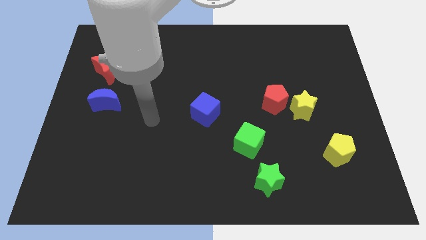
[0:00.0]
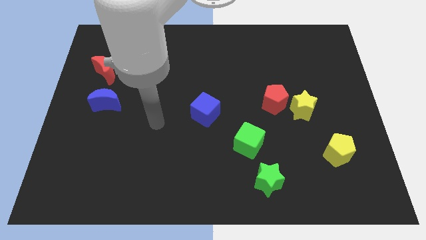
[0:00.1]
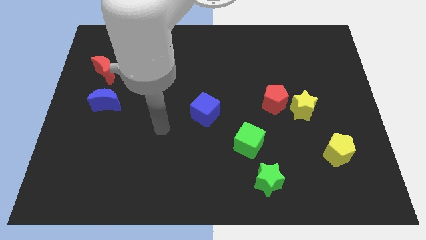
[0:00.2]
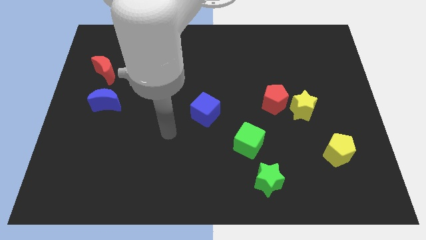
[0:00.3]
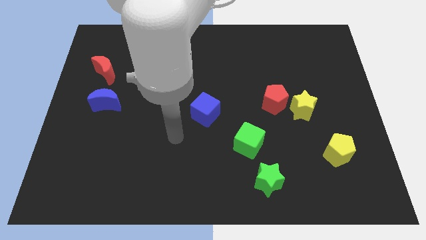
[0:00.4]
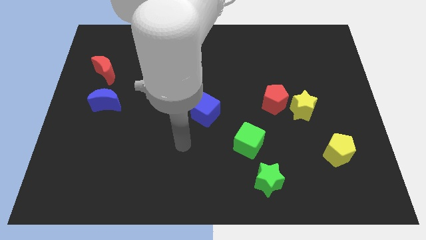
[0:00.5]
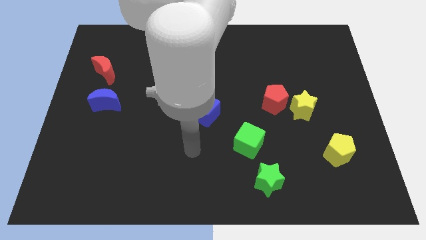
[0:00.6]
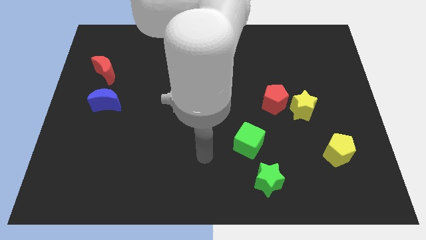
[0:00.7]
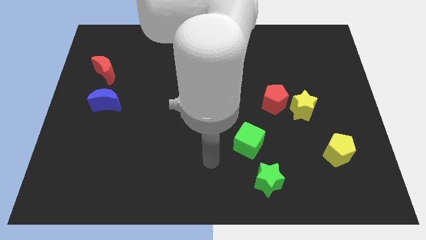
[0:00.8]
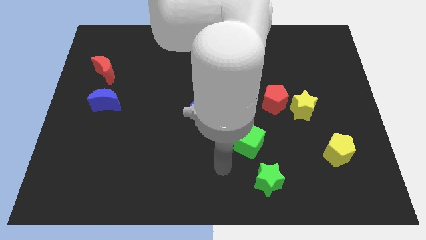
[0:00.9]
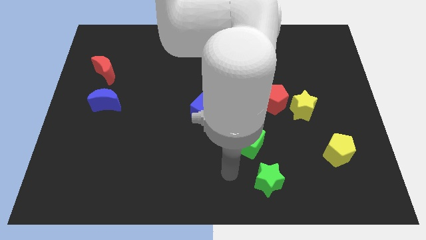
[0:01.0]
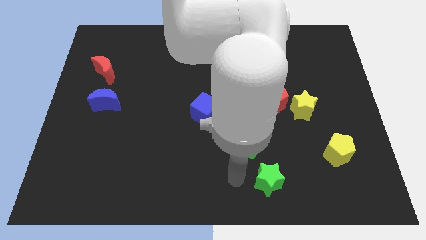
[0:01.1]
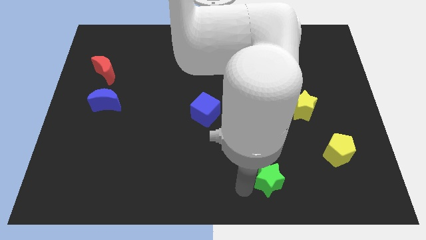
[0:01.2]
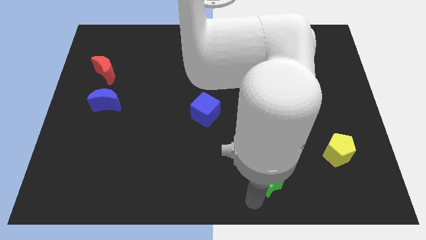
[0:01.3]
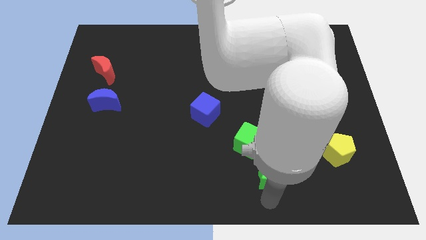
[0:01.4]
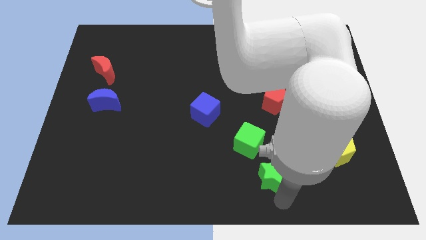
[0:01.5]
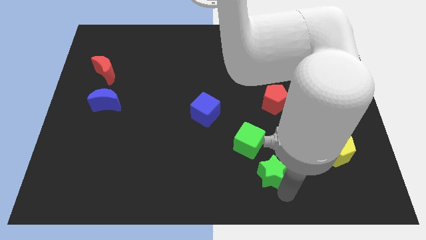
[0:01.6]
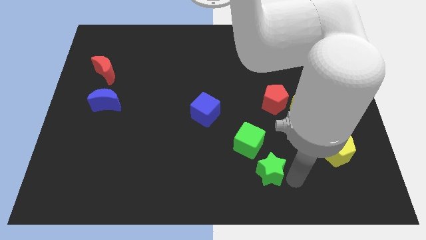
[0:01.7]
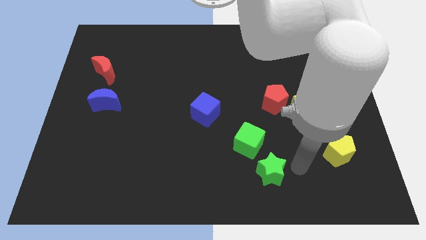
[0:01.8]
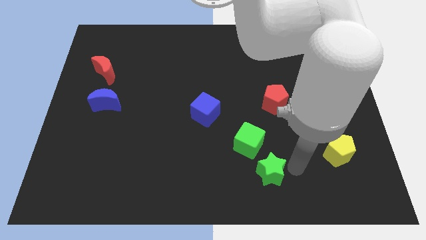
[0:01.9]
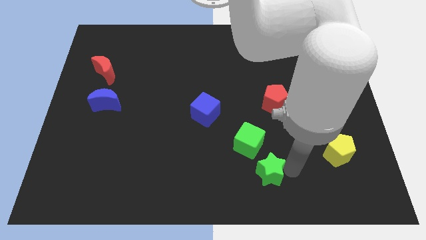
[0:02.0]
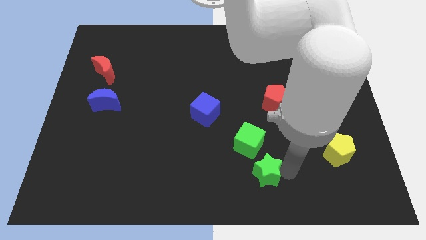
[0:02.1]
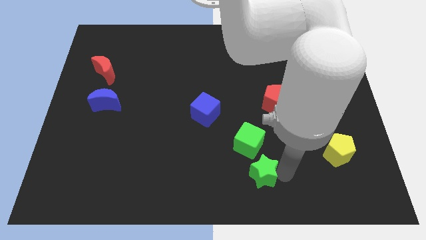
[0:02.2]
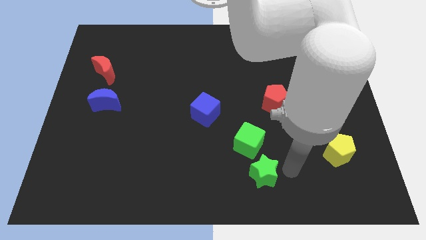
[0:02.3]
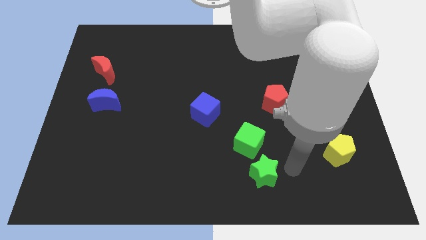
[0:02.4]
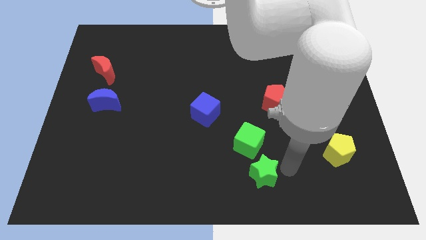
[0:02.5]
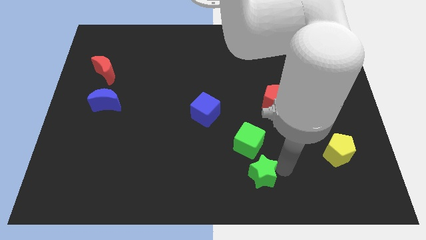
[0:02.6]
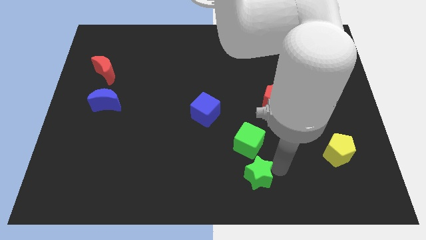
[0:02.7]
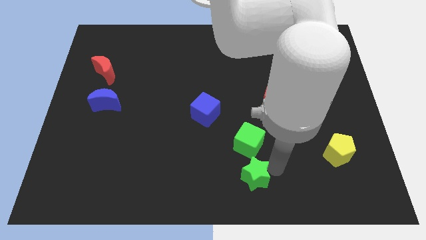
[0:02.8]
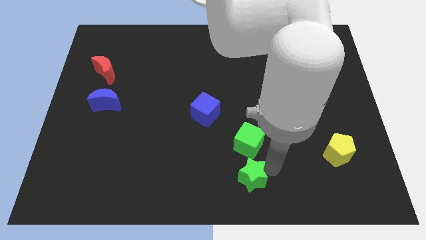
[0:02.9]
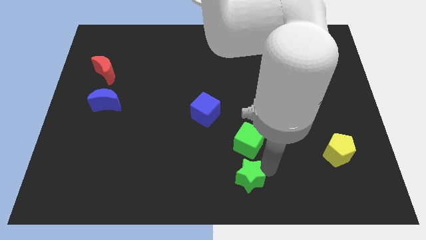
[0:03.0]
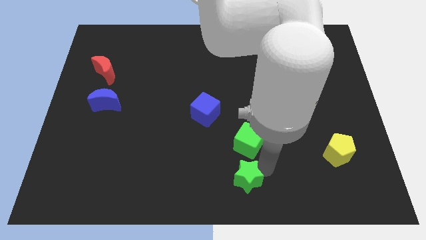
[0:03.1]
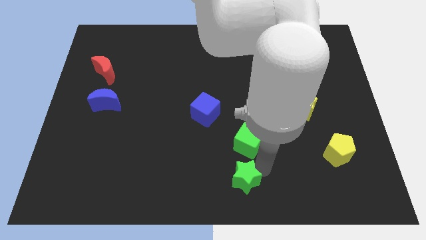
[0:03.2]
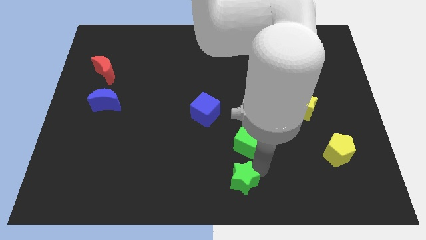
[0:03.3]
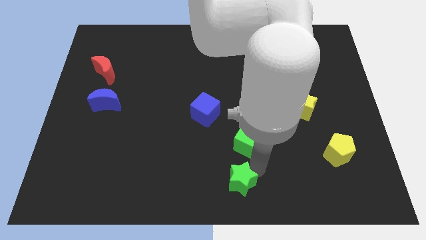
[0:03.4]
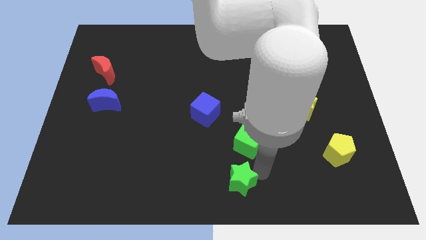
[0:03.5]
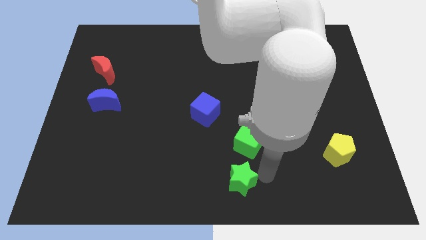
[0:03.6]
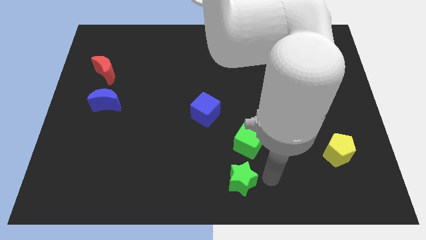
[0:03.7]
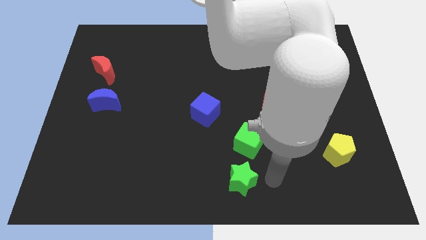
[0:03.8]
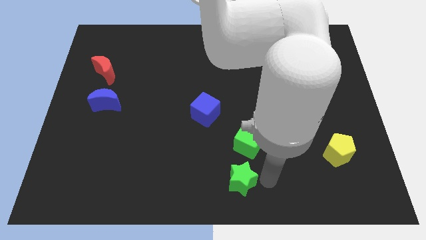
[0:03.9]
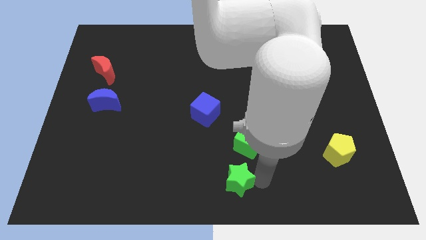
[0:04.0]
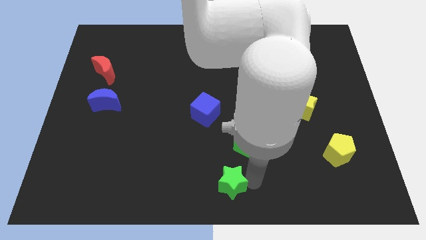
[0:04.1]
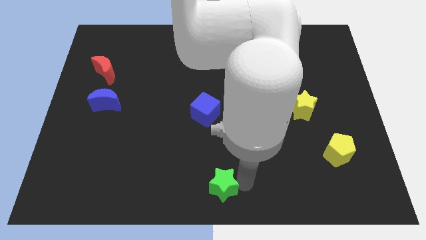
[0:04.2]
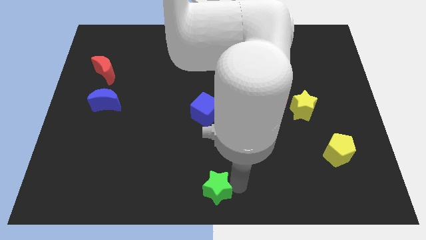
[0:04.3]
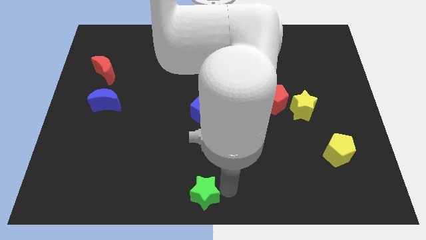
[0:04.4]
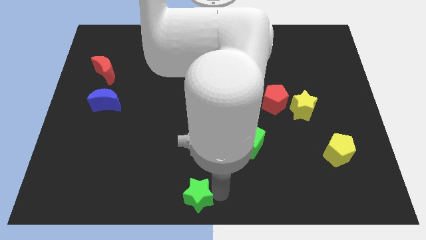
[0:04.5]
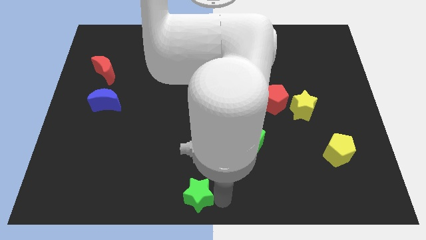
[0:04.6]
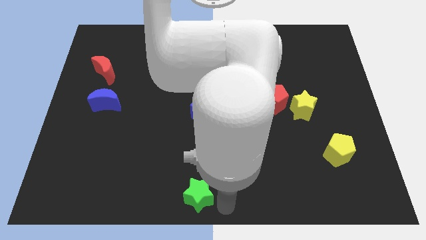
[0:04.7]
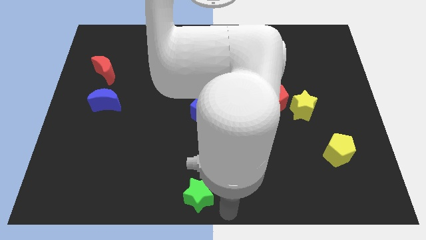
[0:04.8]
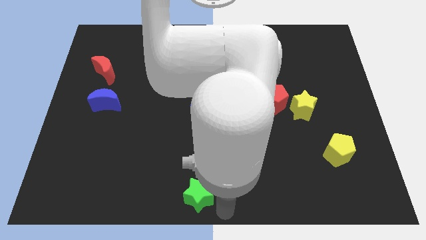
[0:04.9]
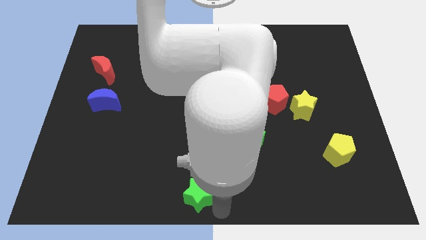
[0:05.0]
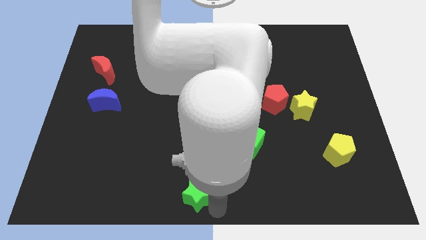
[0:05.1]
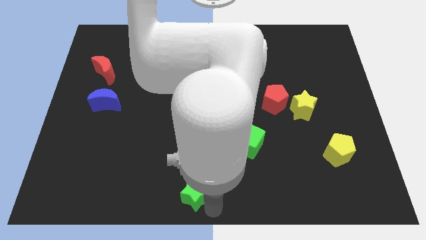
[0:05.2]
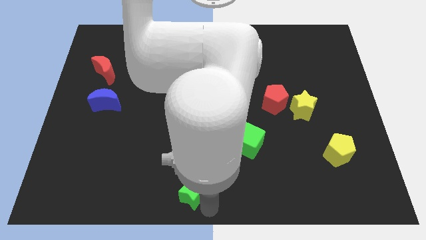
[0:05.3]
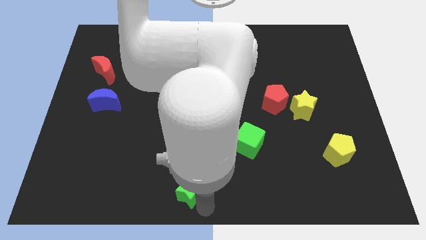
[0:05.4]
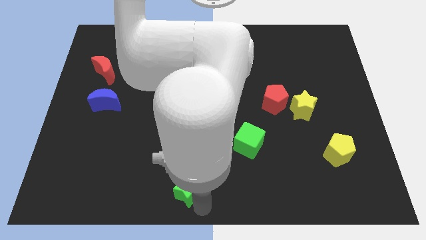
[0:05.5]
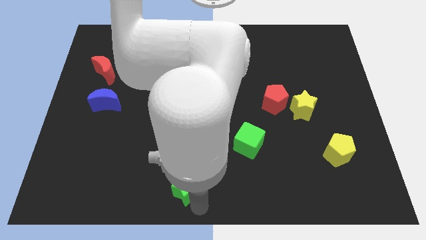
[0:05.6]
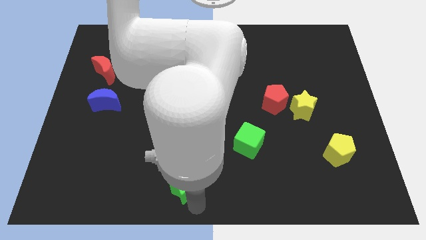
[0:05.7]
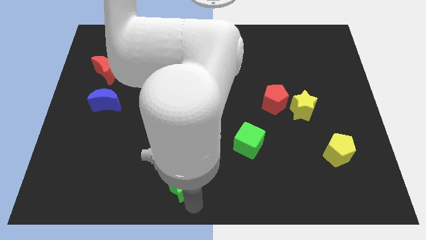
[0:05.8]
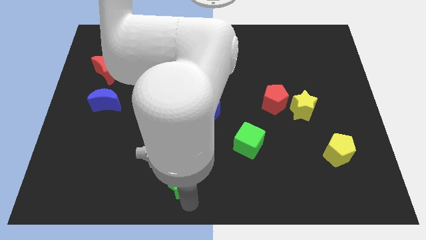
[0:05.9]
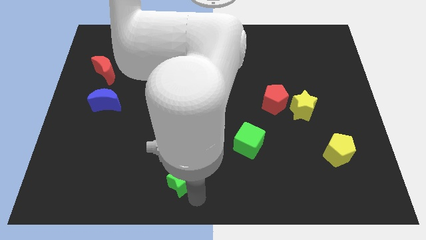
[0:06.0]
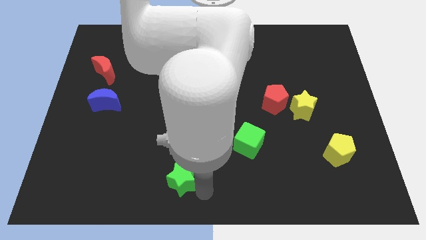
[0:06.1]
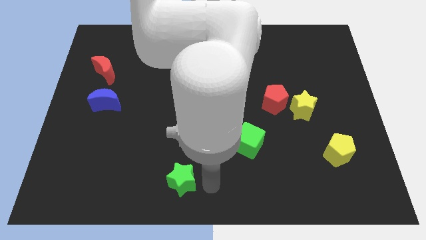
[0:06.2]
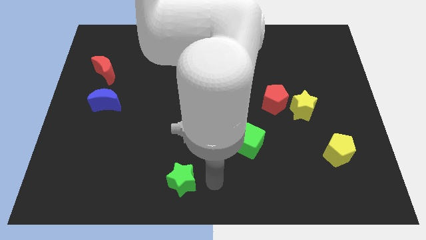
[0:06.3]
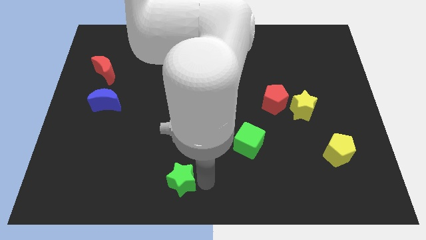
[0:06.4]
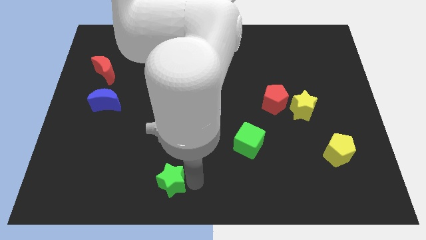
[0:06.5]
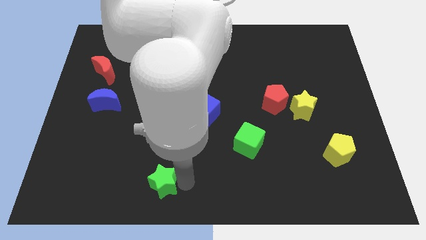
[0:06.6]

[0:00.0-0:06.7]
push the green star to the left

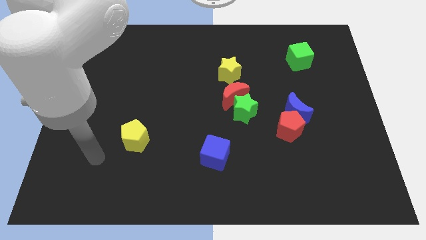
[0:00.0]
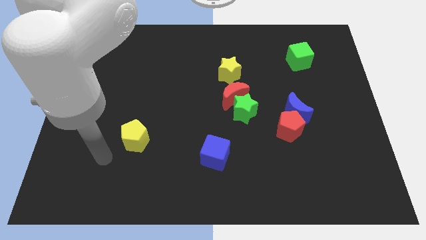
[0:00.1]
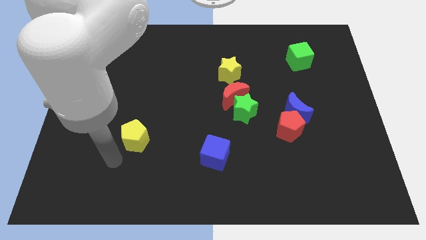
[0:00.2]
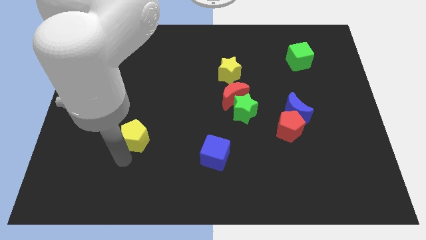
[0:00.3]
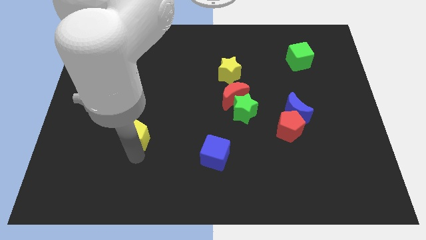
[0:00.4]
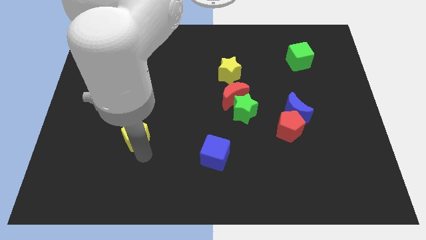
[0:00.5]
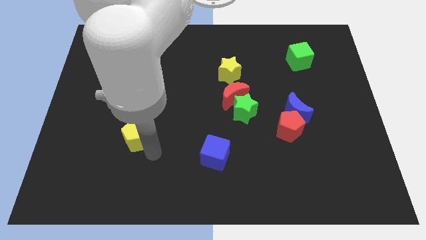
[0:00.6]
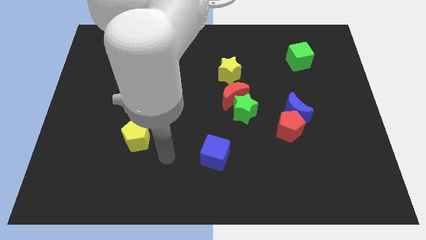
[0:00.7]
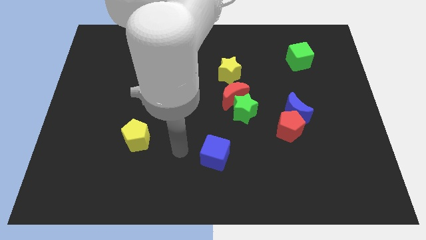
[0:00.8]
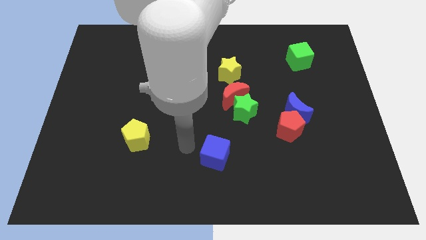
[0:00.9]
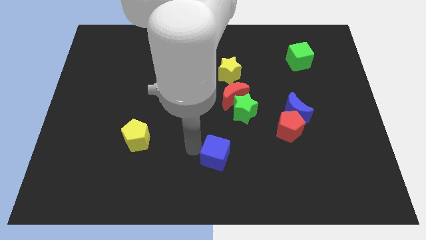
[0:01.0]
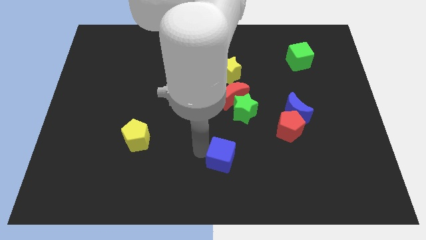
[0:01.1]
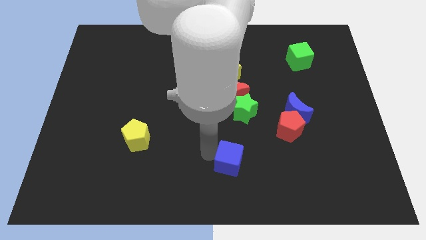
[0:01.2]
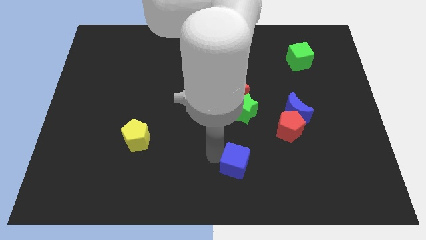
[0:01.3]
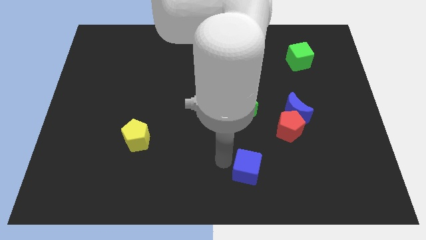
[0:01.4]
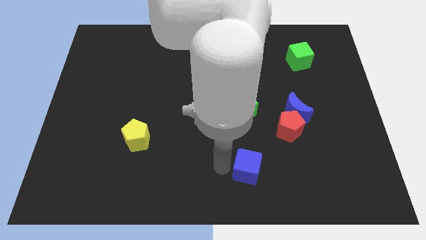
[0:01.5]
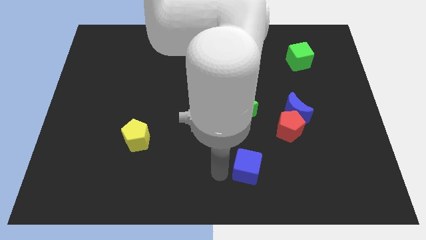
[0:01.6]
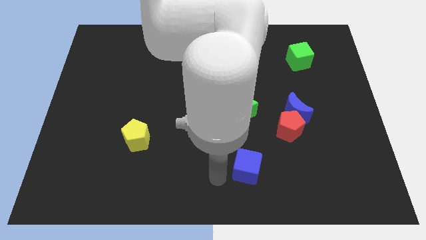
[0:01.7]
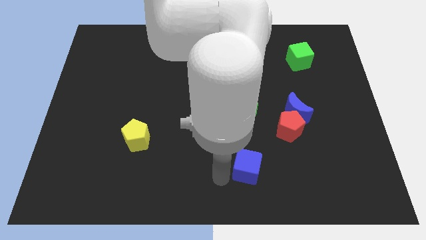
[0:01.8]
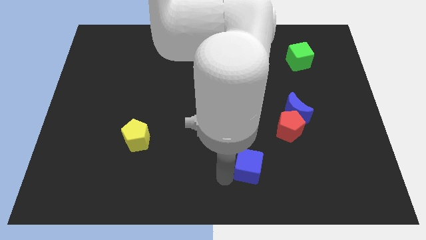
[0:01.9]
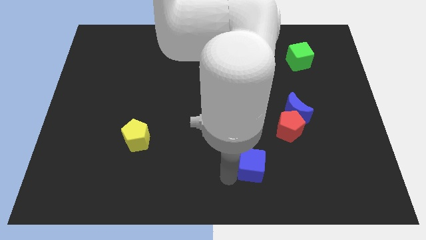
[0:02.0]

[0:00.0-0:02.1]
push the blue cube a little bit to the right
